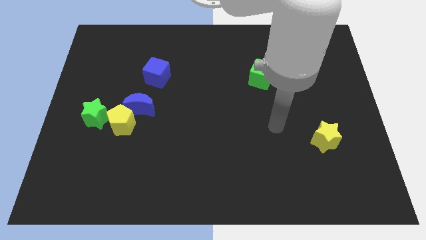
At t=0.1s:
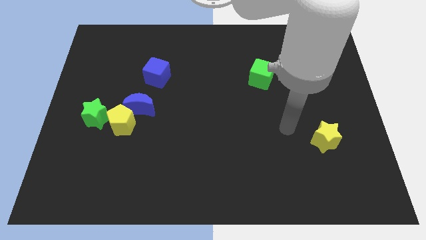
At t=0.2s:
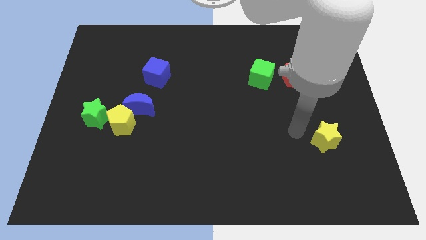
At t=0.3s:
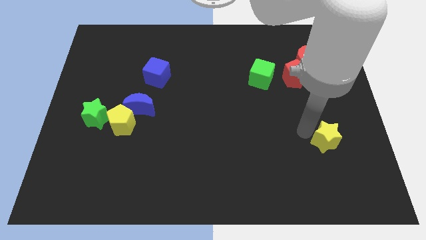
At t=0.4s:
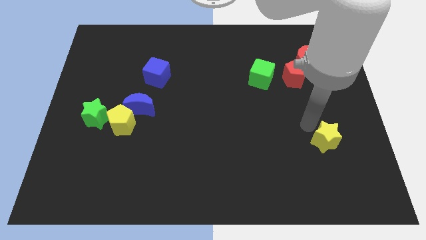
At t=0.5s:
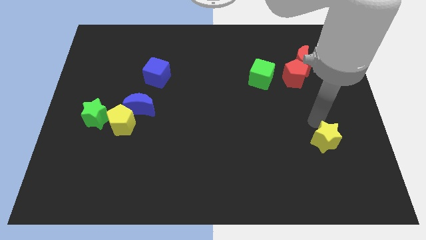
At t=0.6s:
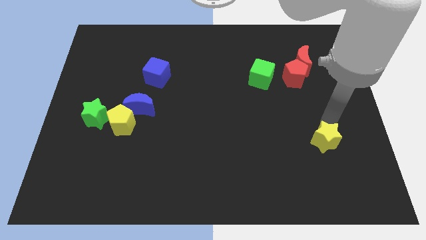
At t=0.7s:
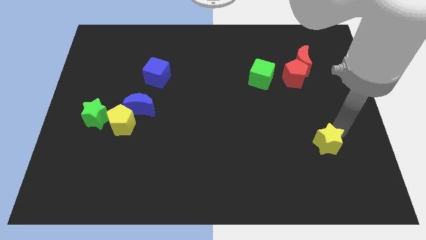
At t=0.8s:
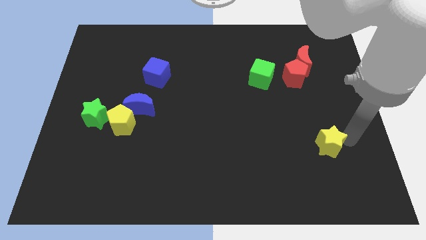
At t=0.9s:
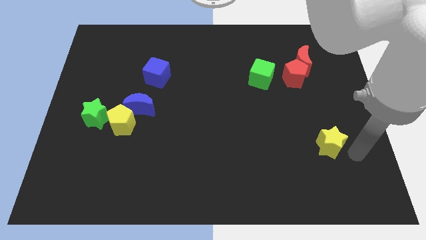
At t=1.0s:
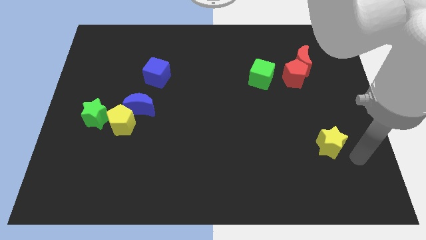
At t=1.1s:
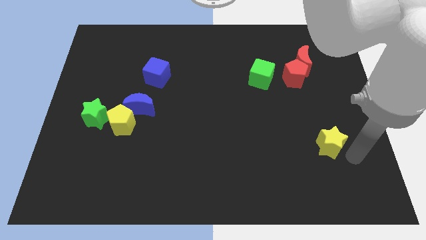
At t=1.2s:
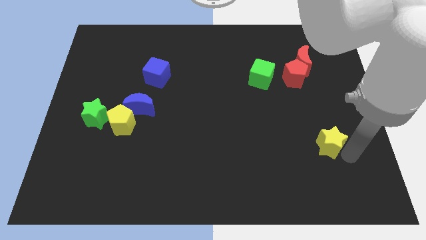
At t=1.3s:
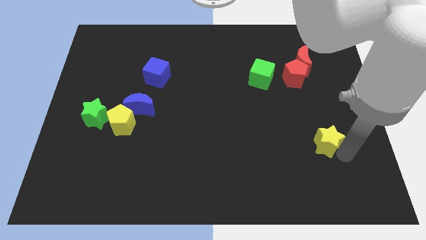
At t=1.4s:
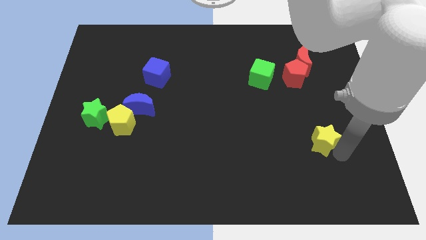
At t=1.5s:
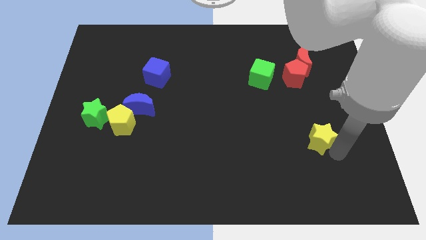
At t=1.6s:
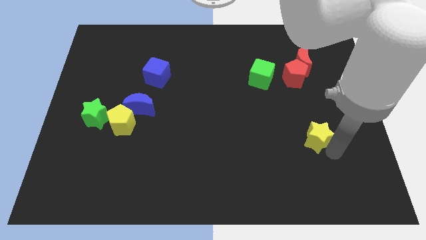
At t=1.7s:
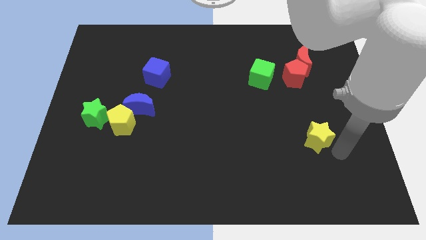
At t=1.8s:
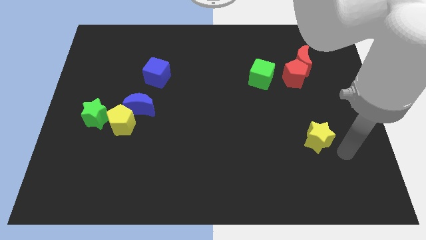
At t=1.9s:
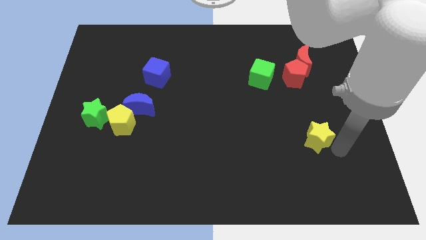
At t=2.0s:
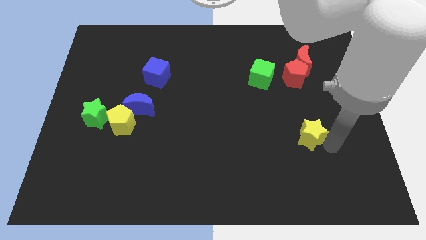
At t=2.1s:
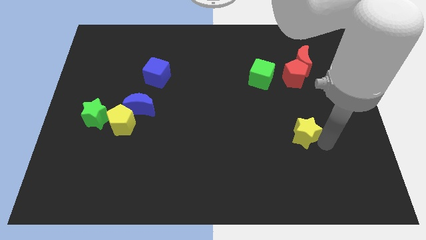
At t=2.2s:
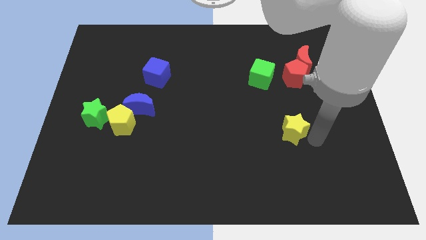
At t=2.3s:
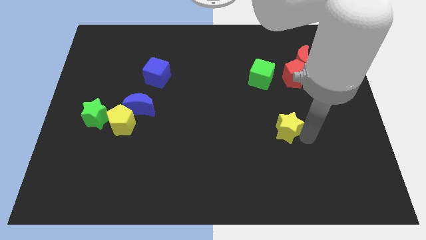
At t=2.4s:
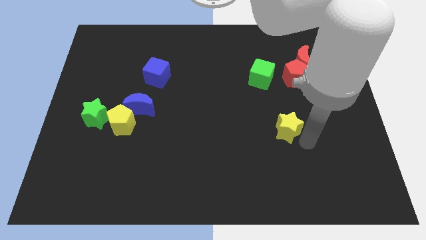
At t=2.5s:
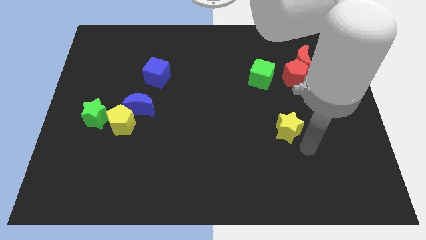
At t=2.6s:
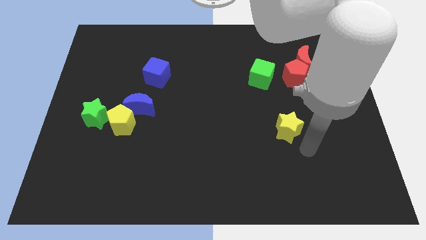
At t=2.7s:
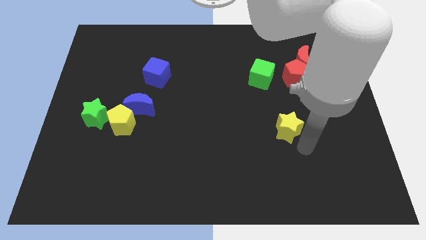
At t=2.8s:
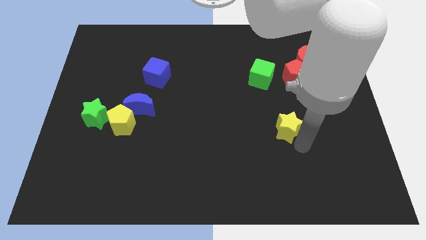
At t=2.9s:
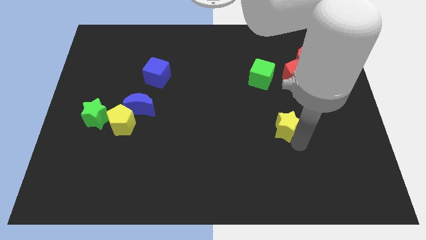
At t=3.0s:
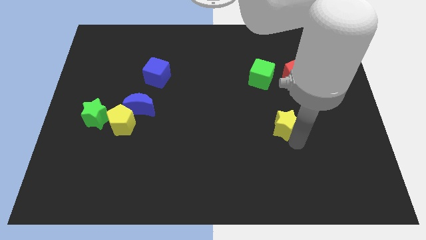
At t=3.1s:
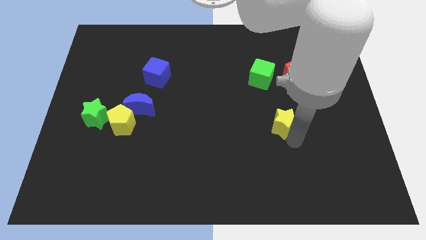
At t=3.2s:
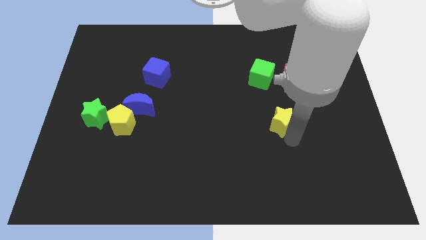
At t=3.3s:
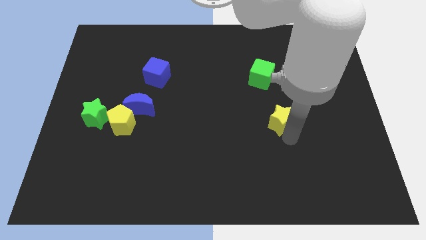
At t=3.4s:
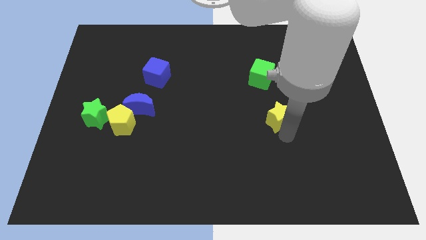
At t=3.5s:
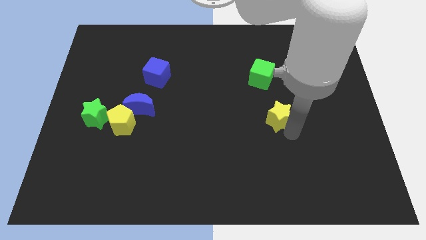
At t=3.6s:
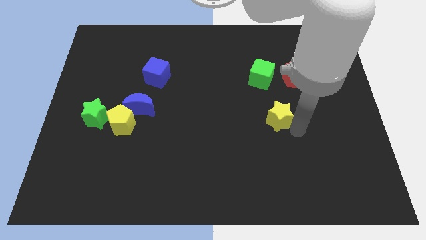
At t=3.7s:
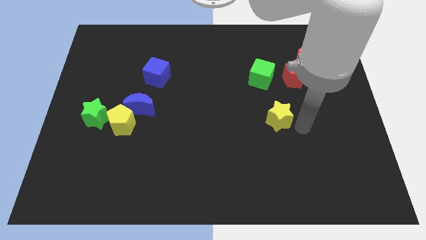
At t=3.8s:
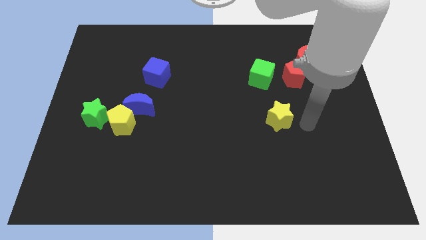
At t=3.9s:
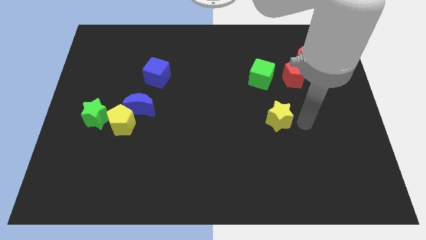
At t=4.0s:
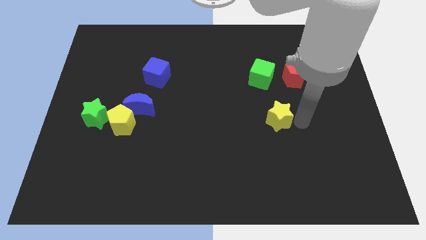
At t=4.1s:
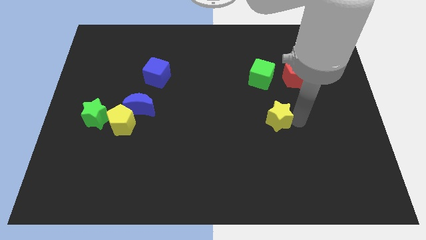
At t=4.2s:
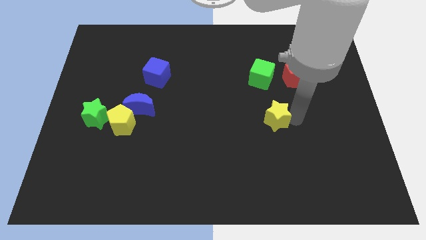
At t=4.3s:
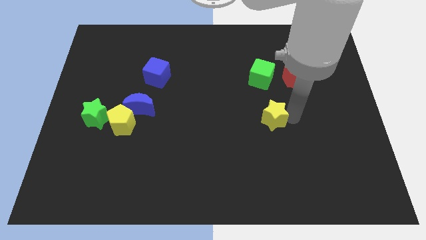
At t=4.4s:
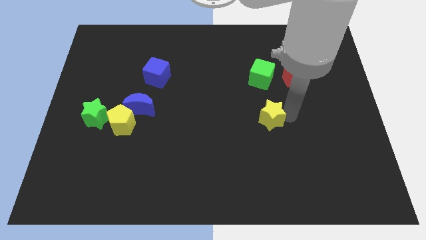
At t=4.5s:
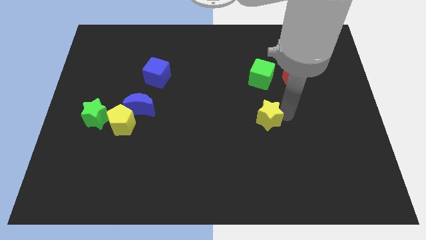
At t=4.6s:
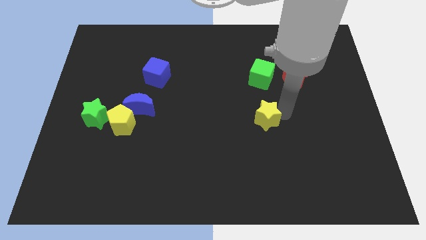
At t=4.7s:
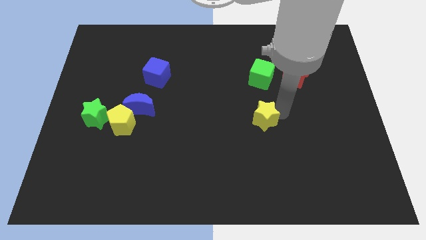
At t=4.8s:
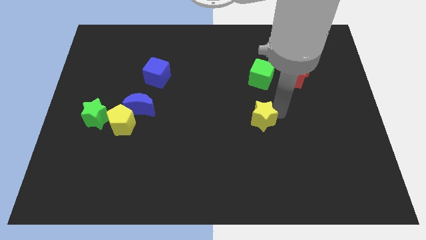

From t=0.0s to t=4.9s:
slide the yellow star to the center

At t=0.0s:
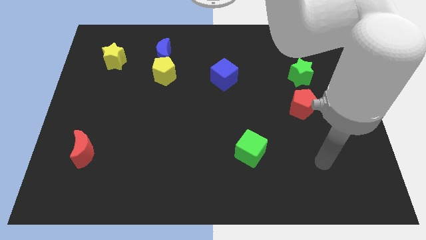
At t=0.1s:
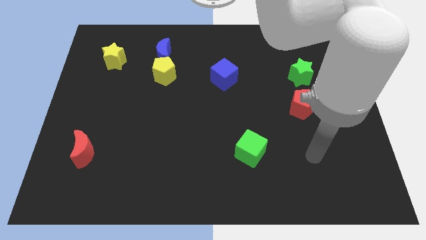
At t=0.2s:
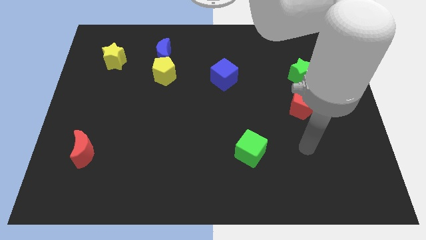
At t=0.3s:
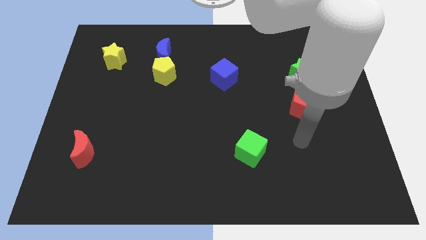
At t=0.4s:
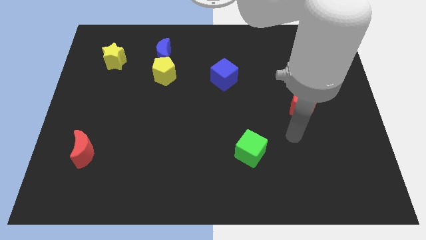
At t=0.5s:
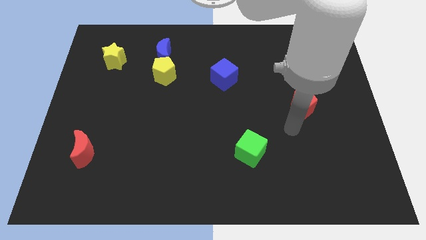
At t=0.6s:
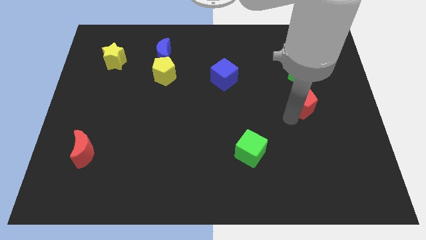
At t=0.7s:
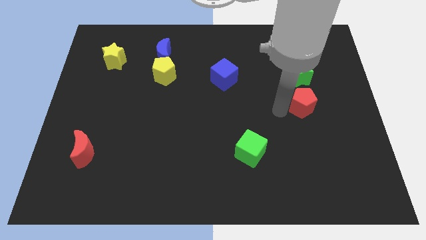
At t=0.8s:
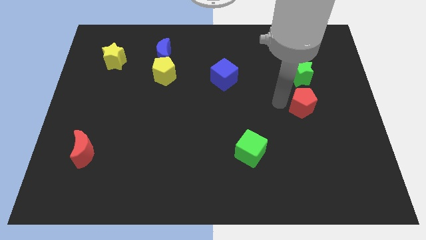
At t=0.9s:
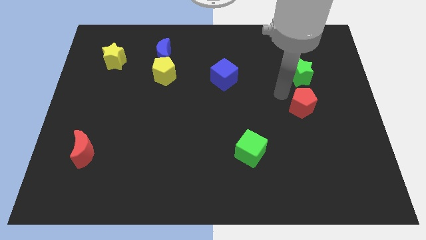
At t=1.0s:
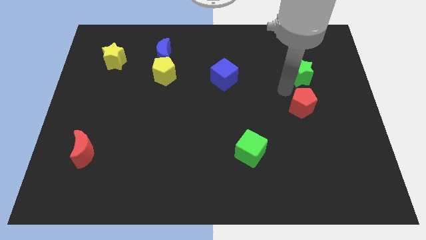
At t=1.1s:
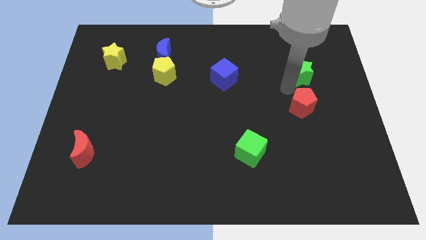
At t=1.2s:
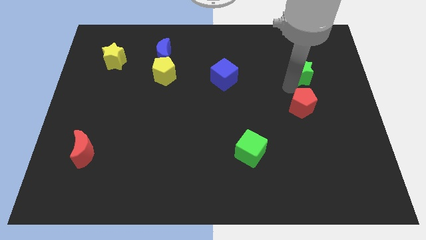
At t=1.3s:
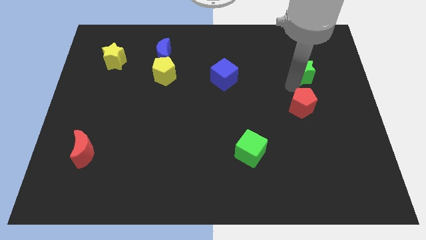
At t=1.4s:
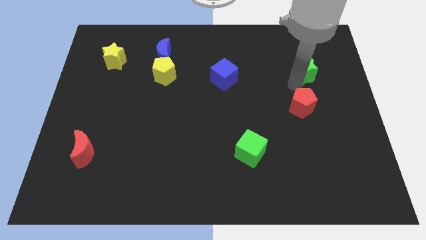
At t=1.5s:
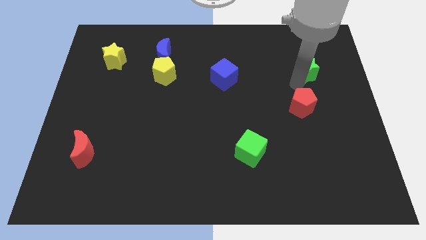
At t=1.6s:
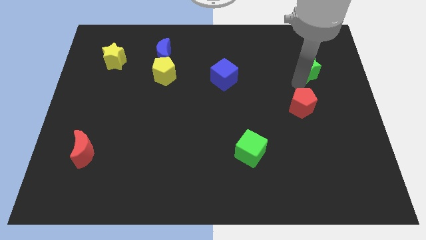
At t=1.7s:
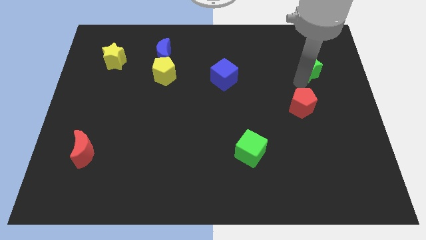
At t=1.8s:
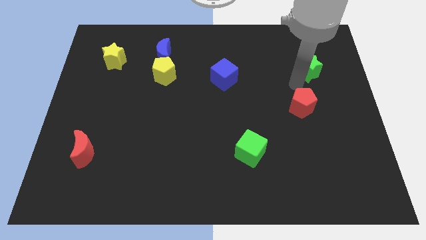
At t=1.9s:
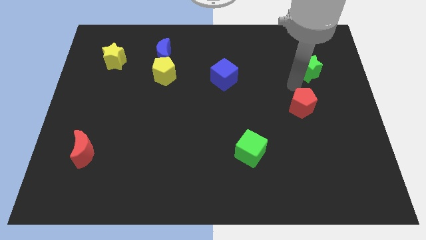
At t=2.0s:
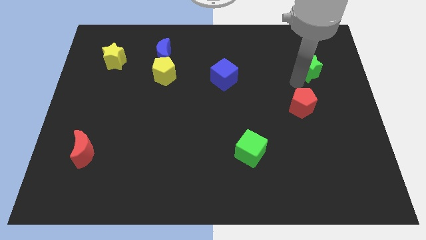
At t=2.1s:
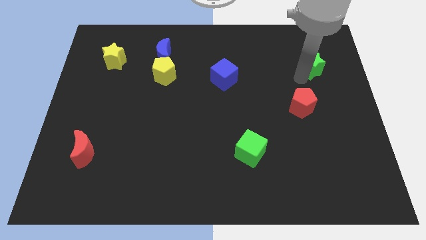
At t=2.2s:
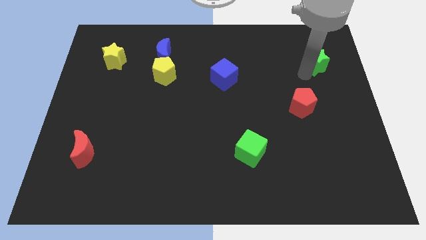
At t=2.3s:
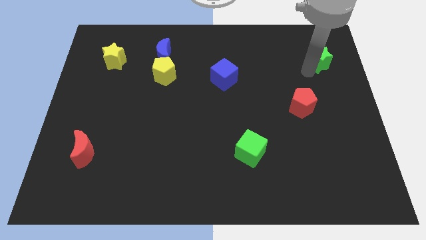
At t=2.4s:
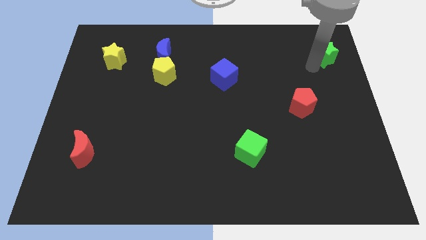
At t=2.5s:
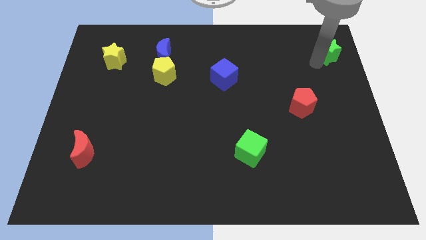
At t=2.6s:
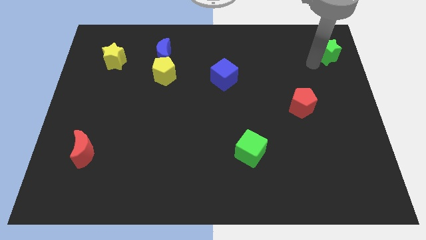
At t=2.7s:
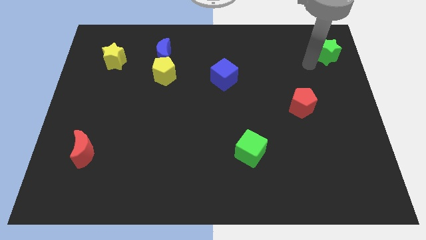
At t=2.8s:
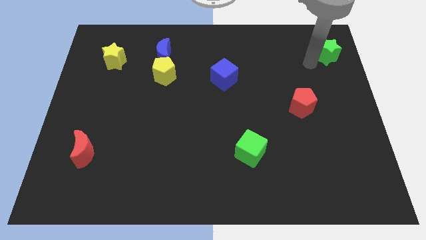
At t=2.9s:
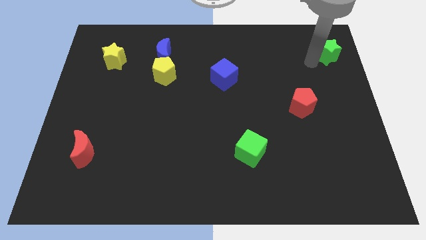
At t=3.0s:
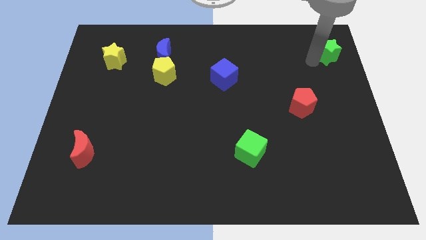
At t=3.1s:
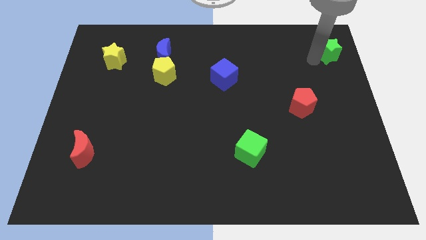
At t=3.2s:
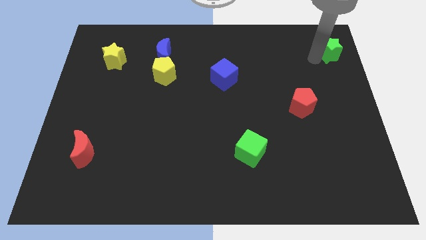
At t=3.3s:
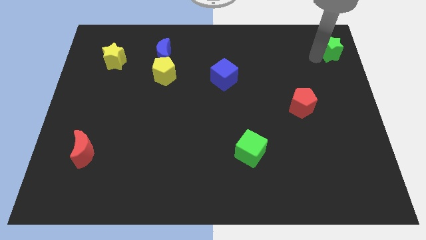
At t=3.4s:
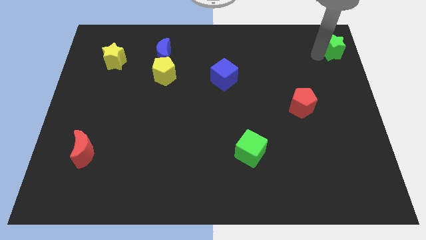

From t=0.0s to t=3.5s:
slide the green star to the top right
